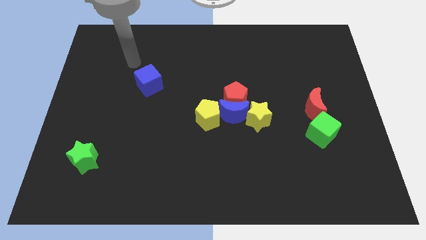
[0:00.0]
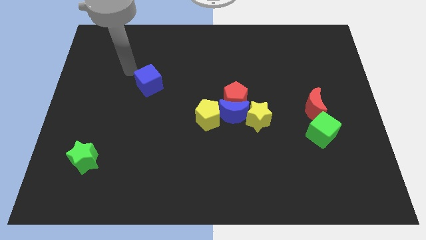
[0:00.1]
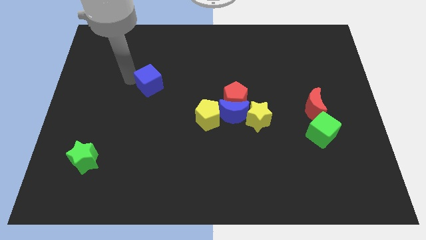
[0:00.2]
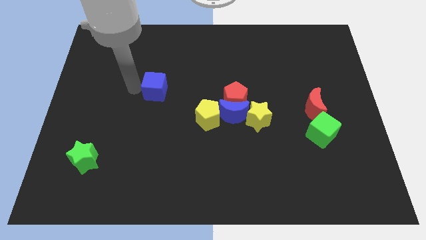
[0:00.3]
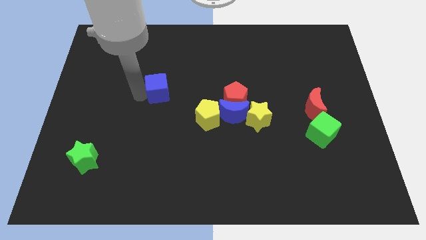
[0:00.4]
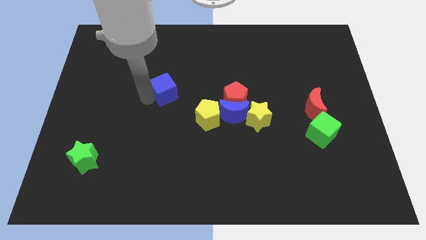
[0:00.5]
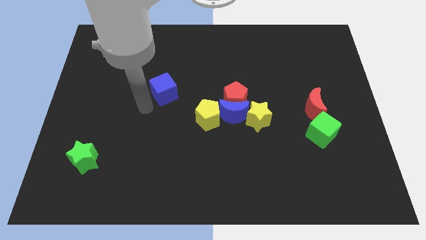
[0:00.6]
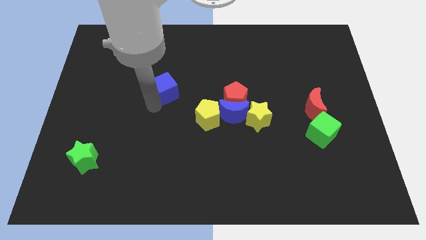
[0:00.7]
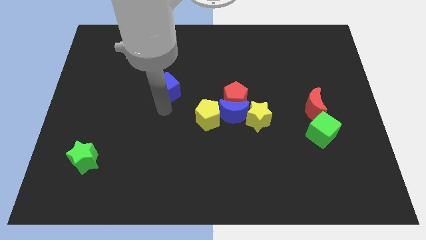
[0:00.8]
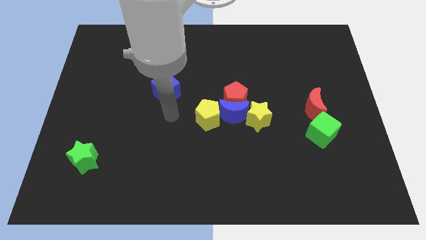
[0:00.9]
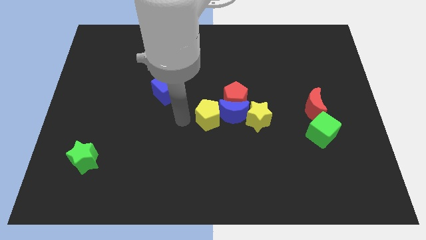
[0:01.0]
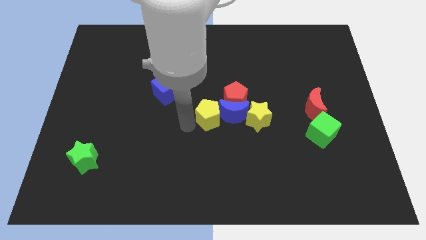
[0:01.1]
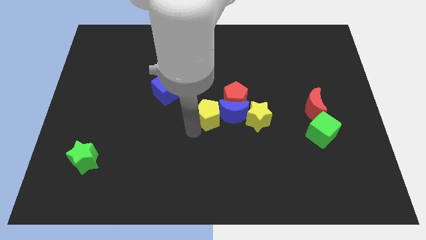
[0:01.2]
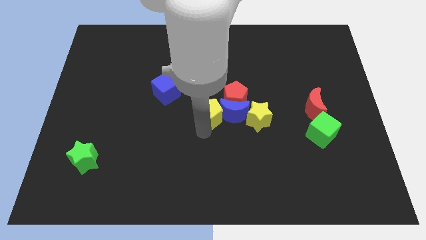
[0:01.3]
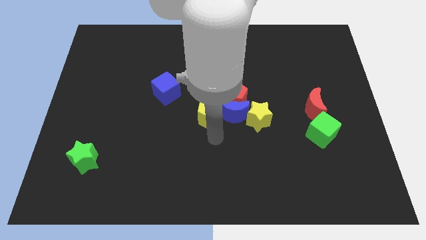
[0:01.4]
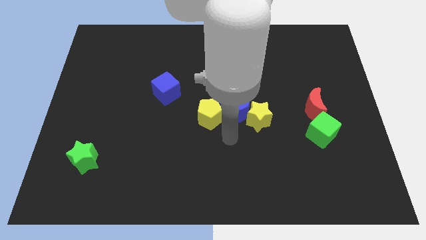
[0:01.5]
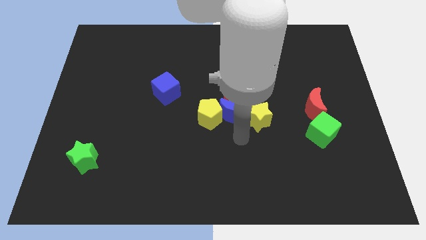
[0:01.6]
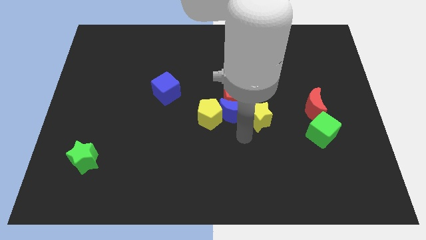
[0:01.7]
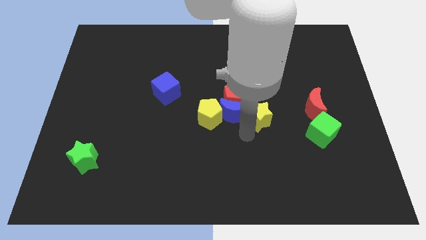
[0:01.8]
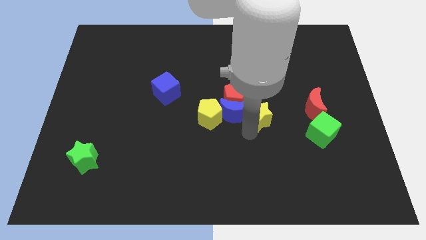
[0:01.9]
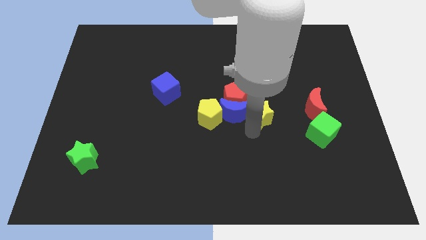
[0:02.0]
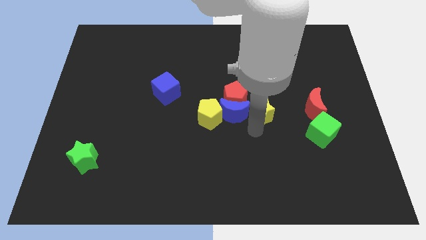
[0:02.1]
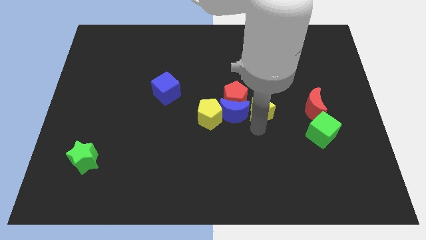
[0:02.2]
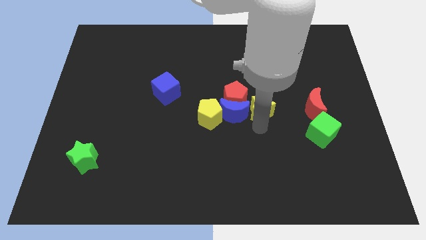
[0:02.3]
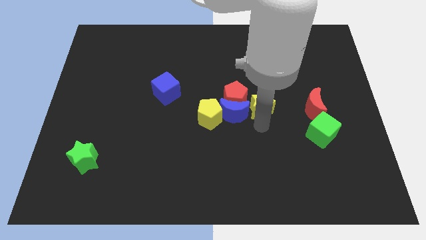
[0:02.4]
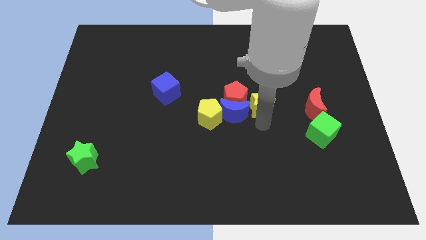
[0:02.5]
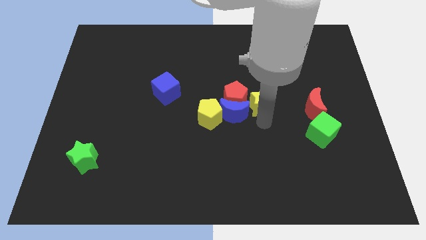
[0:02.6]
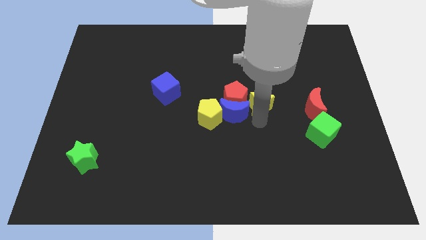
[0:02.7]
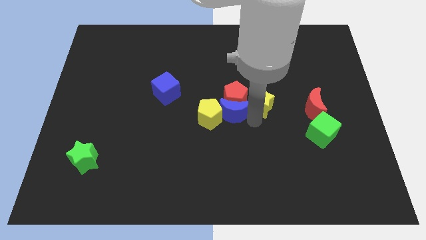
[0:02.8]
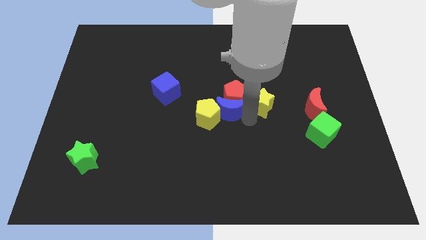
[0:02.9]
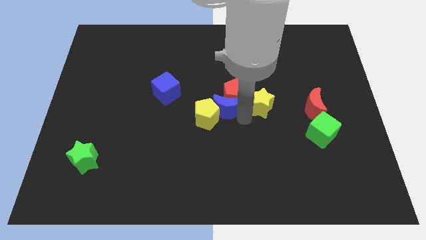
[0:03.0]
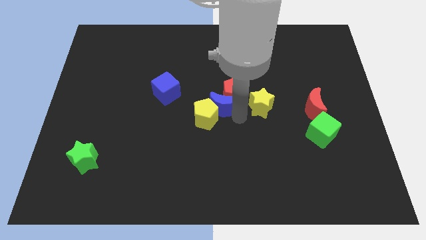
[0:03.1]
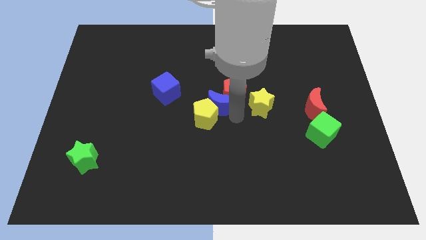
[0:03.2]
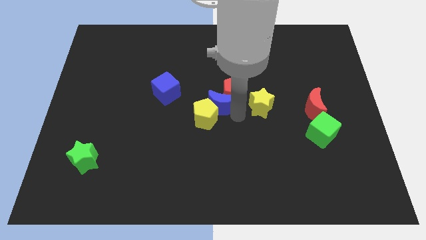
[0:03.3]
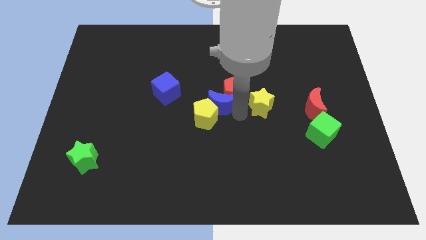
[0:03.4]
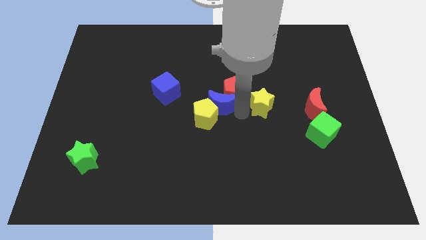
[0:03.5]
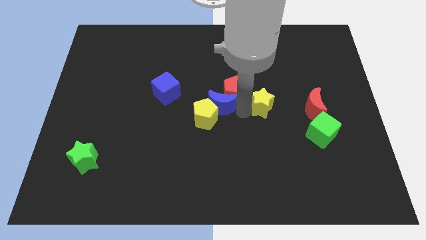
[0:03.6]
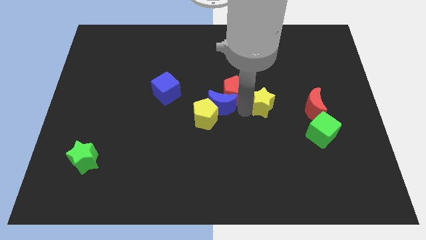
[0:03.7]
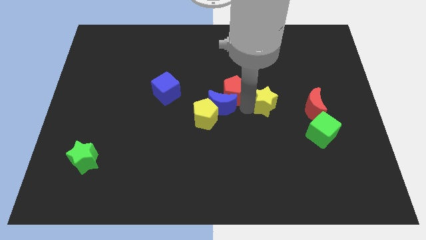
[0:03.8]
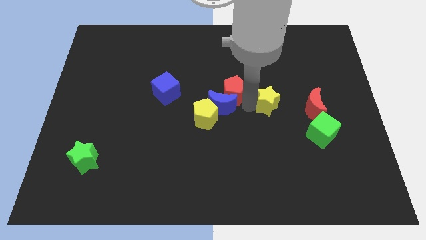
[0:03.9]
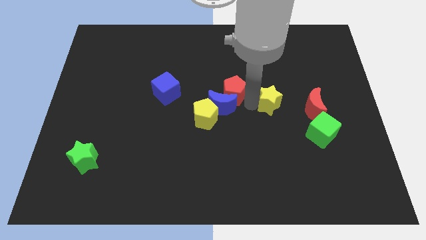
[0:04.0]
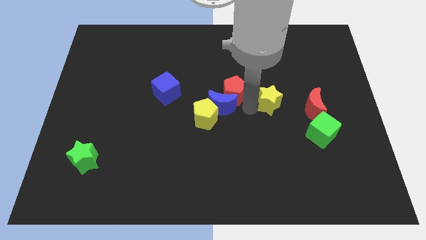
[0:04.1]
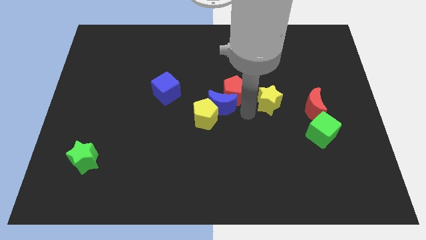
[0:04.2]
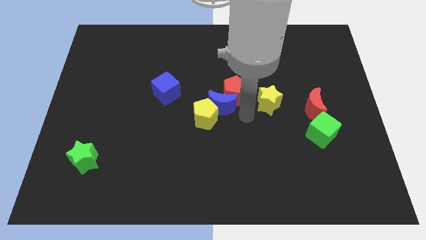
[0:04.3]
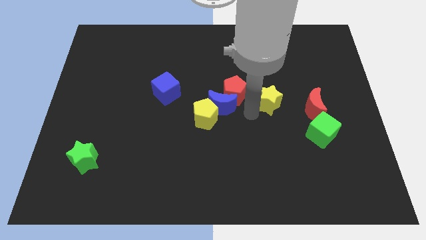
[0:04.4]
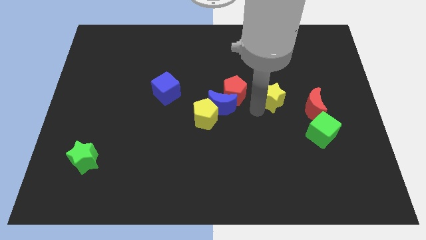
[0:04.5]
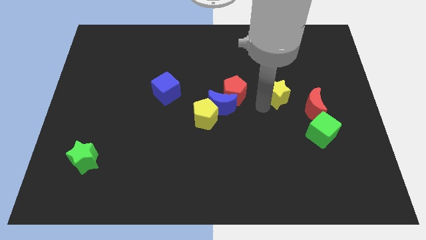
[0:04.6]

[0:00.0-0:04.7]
push the yellow star to the top left of the red moon

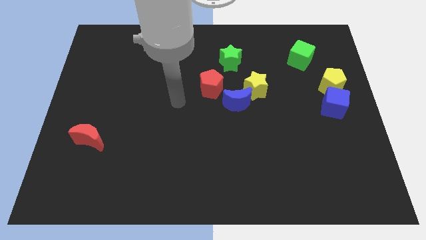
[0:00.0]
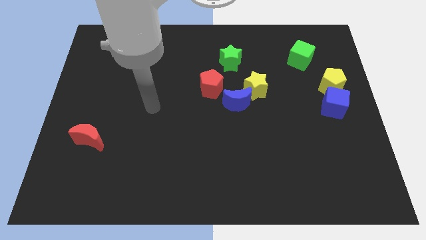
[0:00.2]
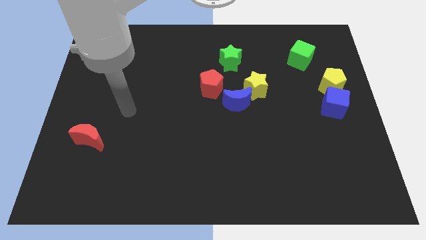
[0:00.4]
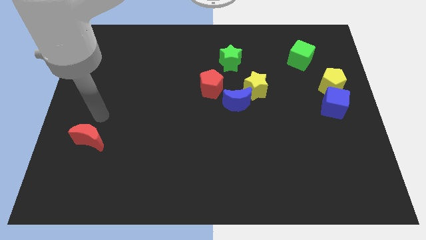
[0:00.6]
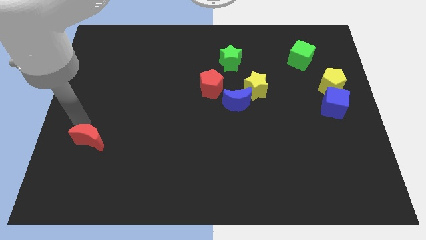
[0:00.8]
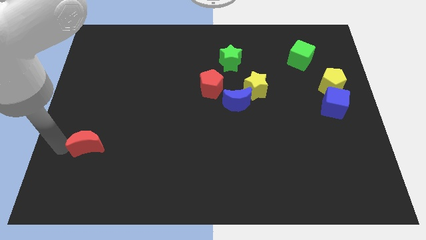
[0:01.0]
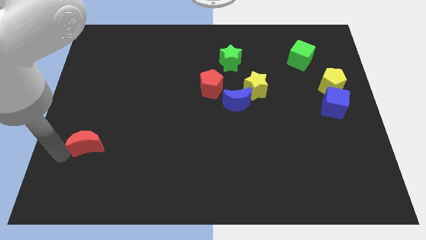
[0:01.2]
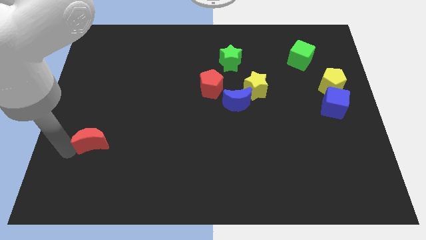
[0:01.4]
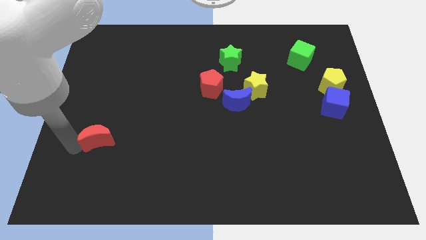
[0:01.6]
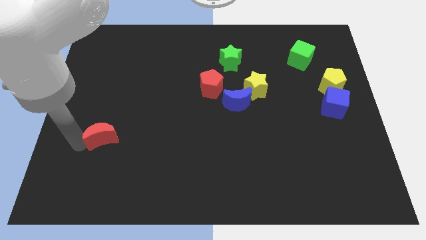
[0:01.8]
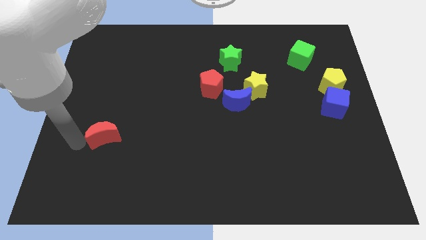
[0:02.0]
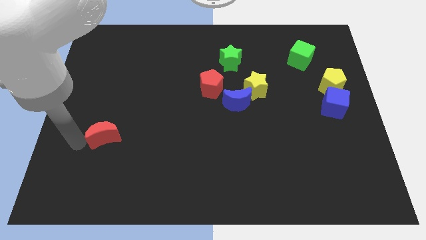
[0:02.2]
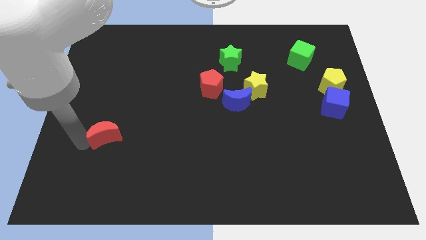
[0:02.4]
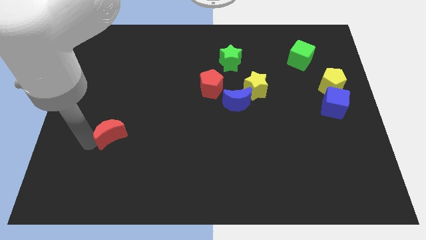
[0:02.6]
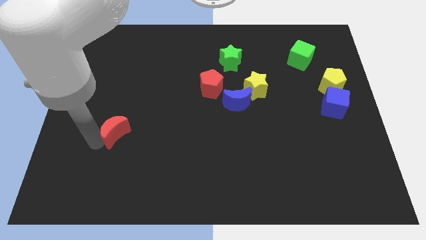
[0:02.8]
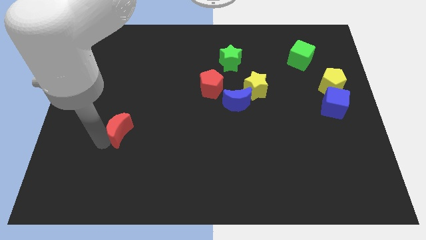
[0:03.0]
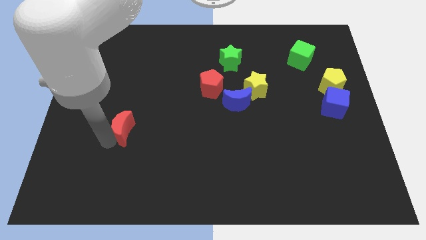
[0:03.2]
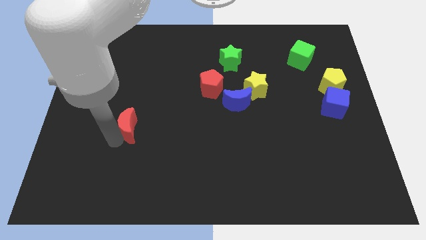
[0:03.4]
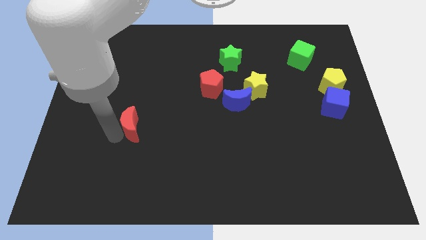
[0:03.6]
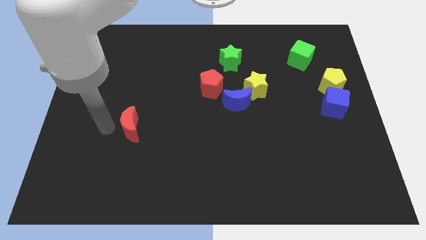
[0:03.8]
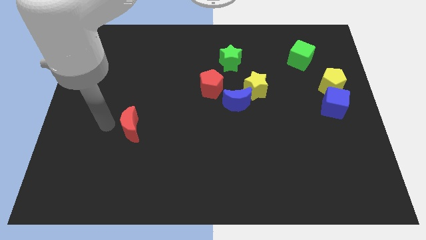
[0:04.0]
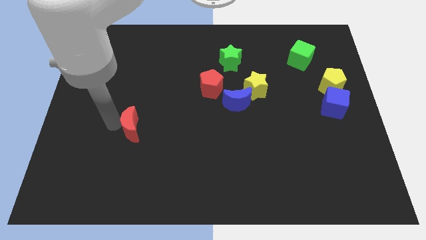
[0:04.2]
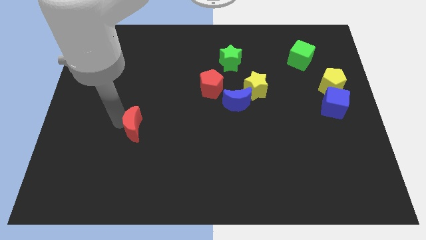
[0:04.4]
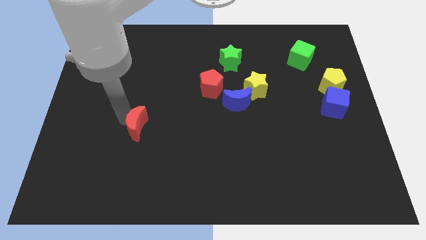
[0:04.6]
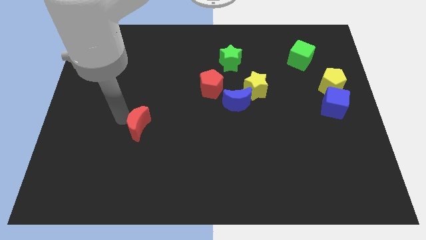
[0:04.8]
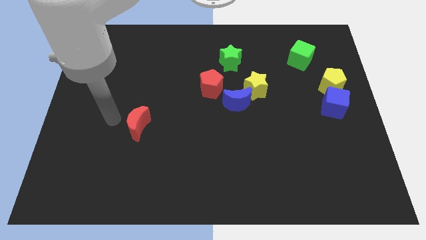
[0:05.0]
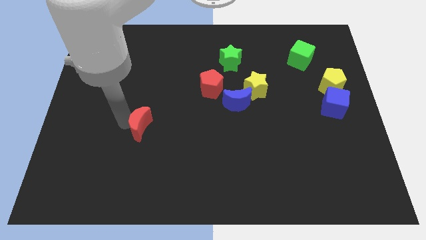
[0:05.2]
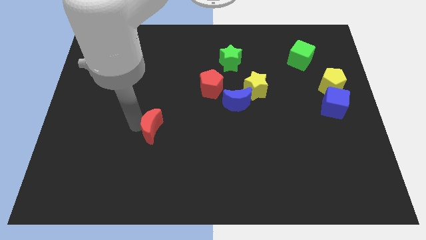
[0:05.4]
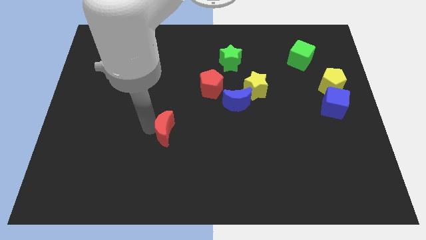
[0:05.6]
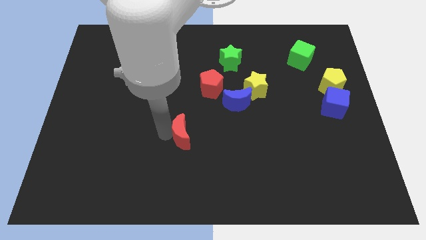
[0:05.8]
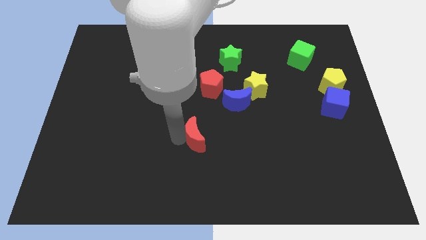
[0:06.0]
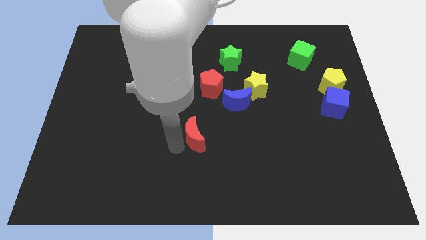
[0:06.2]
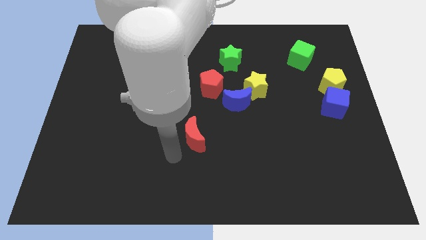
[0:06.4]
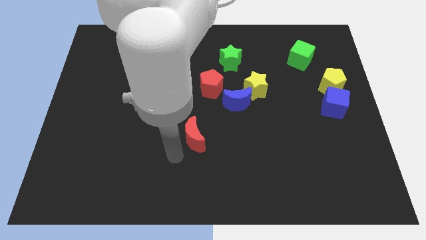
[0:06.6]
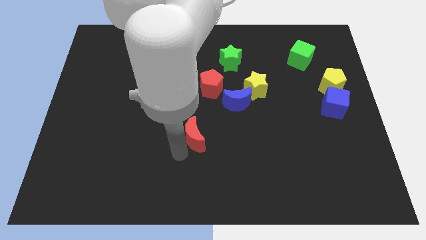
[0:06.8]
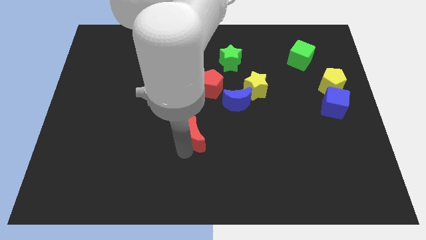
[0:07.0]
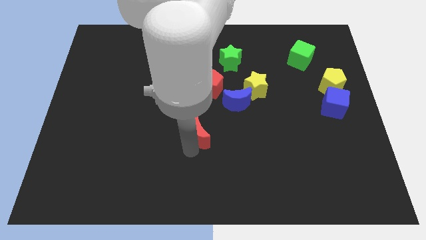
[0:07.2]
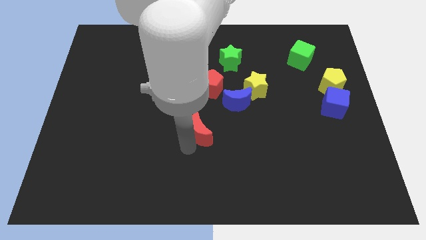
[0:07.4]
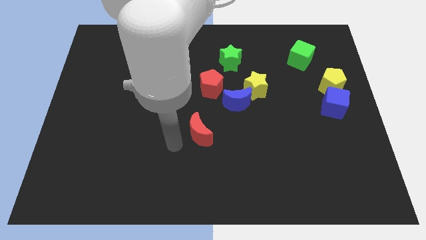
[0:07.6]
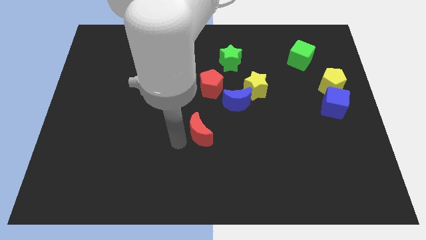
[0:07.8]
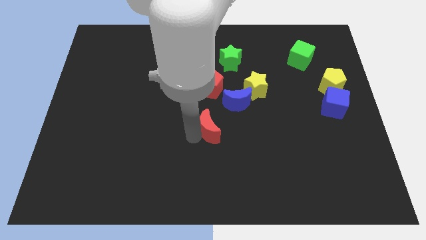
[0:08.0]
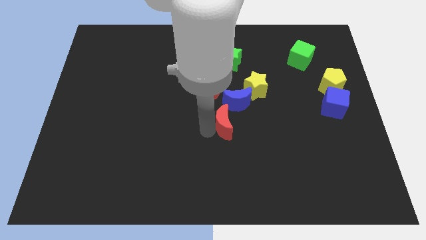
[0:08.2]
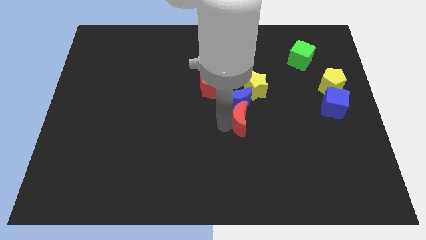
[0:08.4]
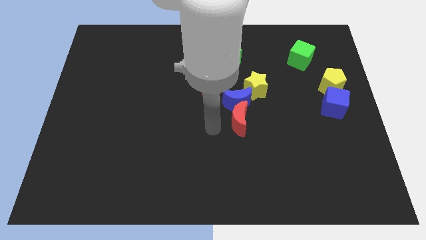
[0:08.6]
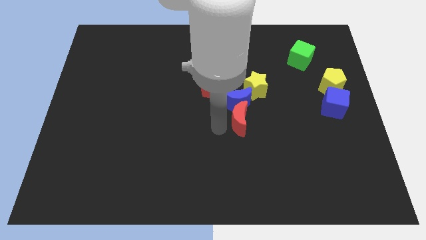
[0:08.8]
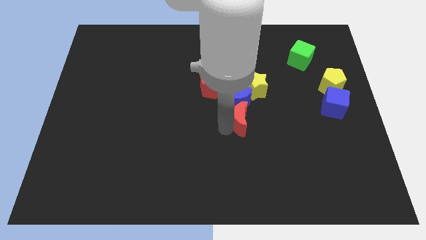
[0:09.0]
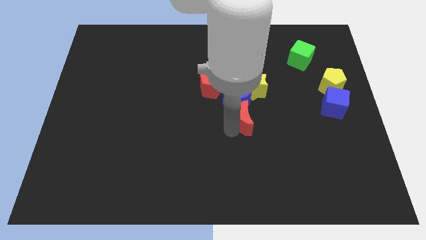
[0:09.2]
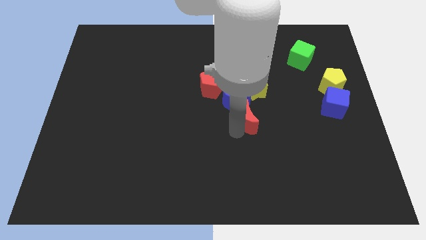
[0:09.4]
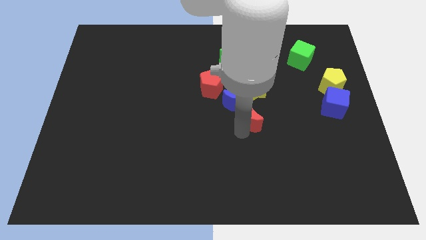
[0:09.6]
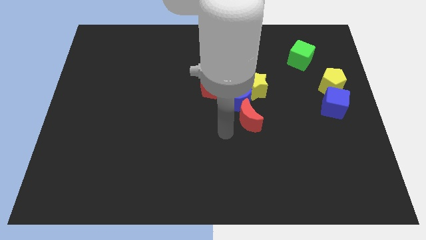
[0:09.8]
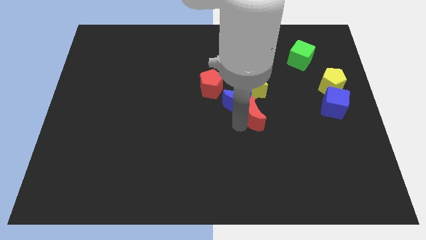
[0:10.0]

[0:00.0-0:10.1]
push the red moon to the right of the blue moon
